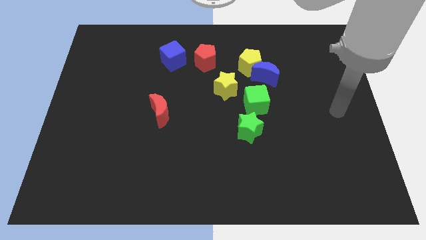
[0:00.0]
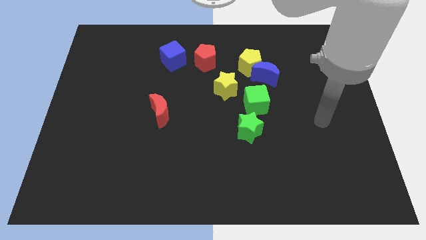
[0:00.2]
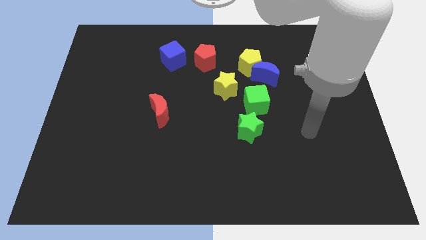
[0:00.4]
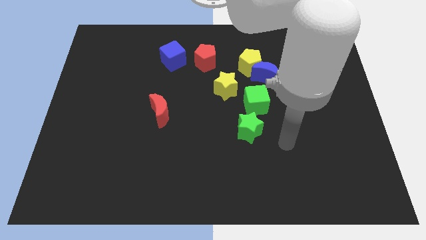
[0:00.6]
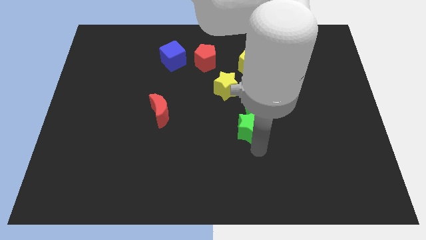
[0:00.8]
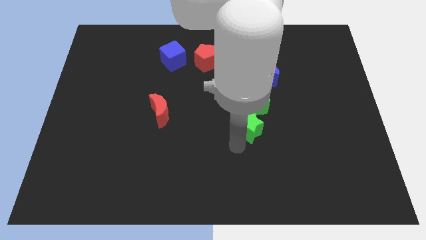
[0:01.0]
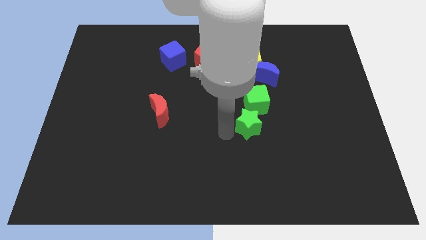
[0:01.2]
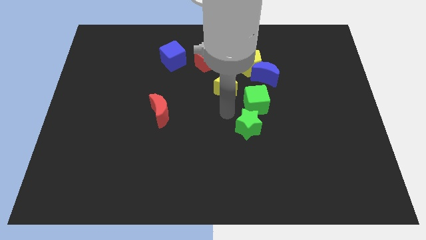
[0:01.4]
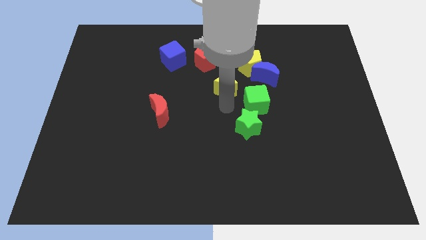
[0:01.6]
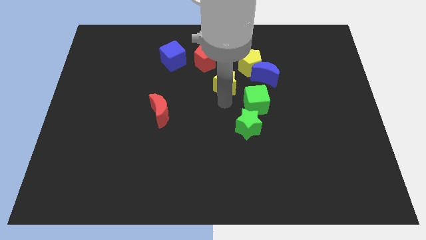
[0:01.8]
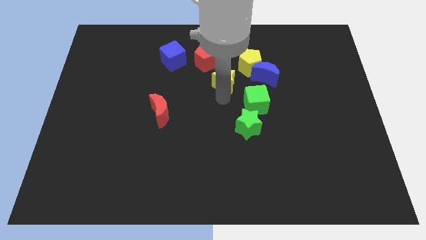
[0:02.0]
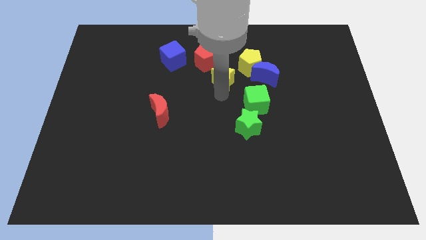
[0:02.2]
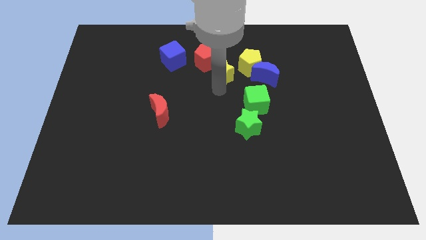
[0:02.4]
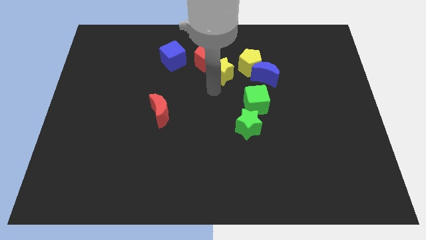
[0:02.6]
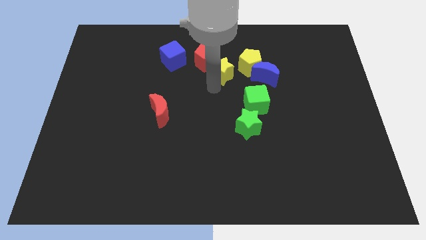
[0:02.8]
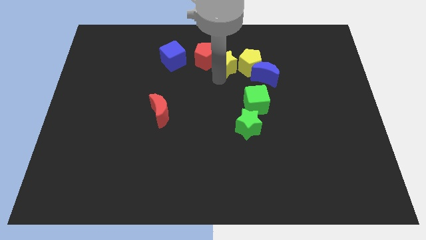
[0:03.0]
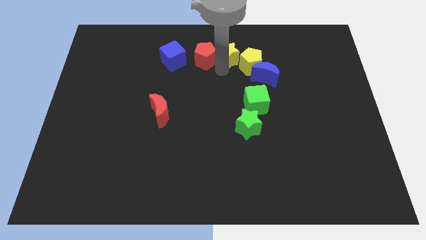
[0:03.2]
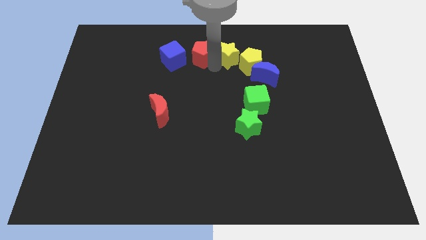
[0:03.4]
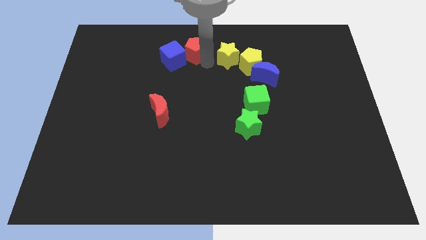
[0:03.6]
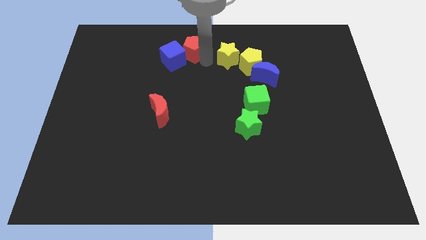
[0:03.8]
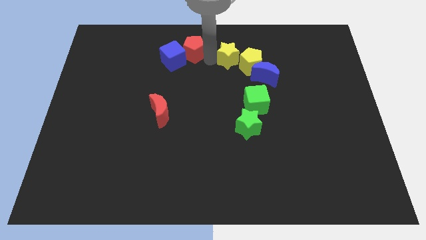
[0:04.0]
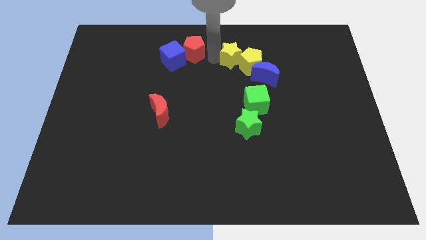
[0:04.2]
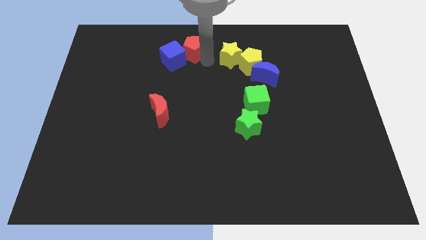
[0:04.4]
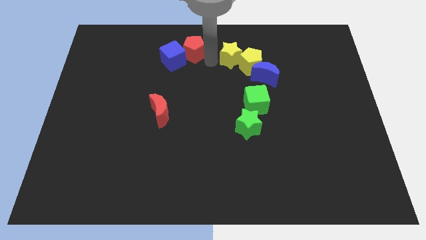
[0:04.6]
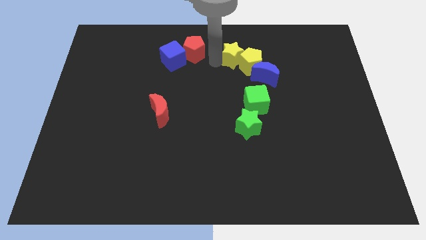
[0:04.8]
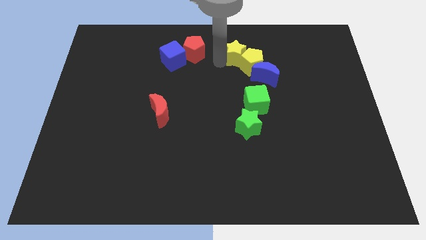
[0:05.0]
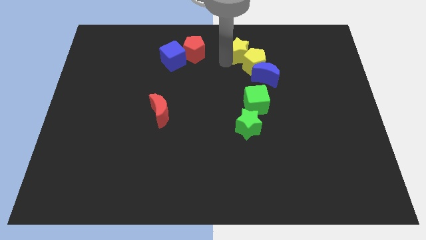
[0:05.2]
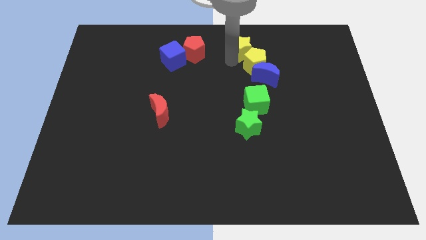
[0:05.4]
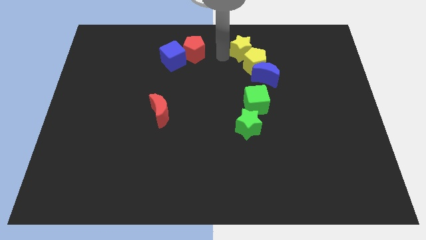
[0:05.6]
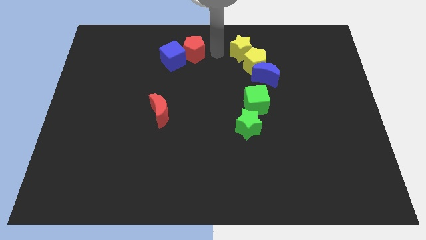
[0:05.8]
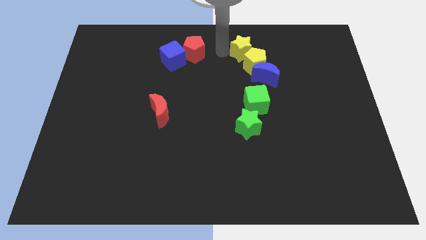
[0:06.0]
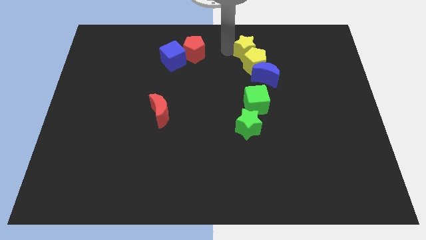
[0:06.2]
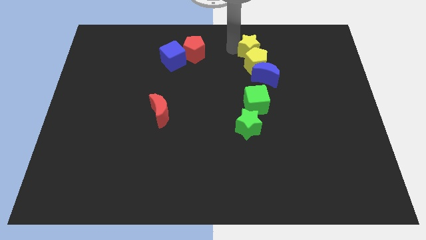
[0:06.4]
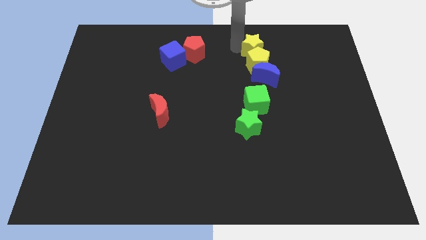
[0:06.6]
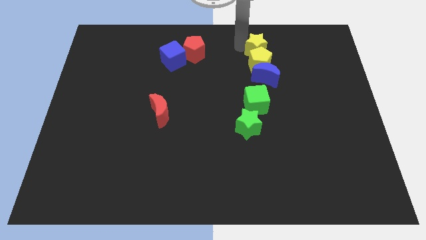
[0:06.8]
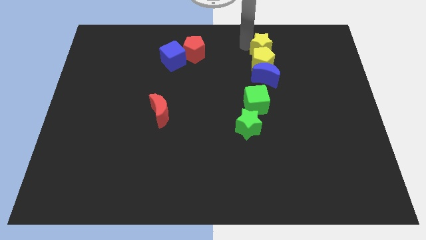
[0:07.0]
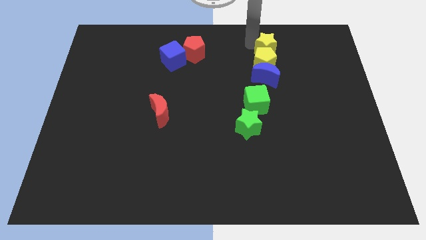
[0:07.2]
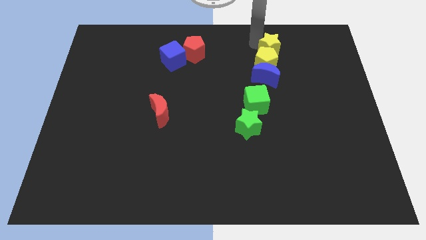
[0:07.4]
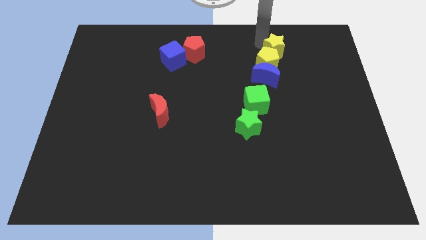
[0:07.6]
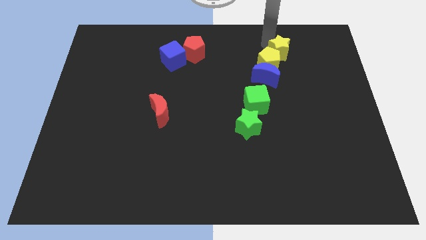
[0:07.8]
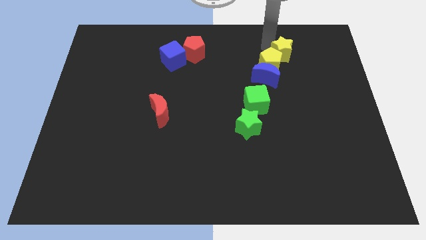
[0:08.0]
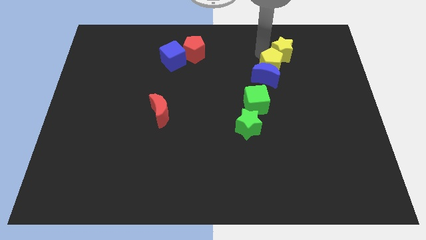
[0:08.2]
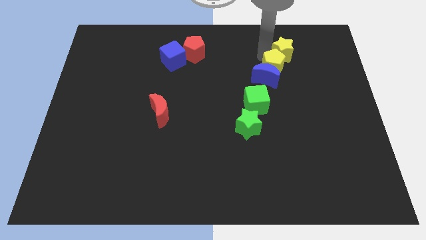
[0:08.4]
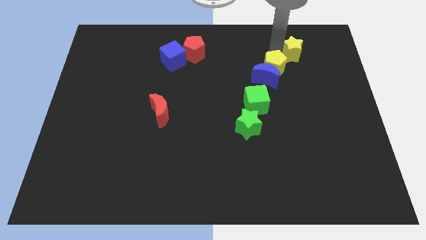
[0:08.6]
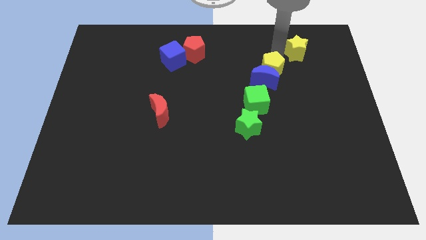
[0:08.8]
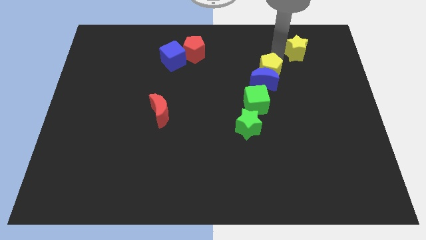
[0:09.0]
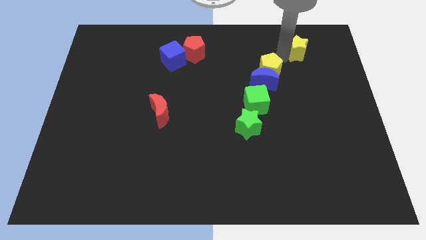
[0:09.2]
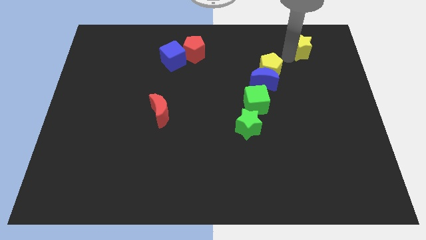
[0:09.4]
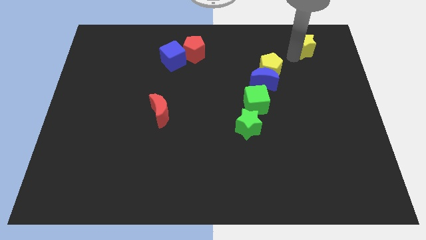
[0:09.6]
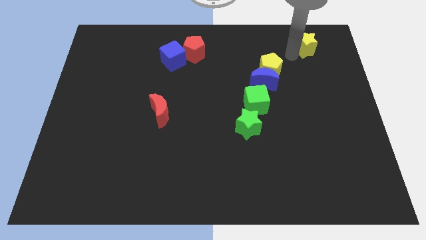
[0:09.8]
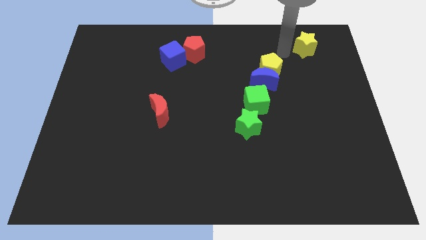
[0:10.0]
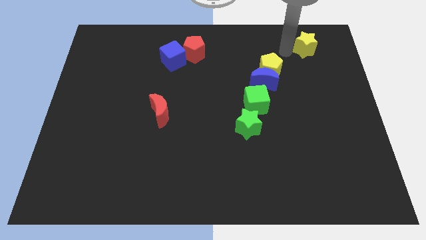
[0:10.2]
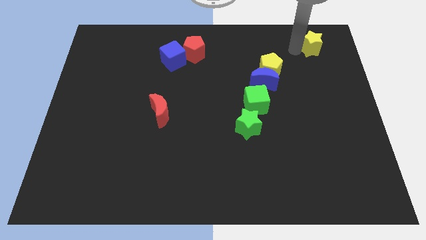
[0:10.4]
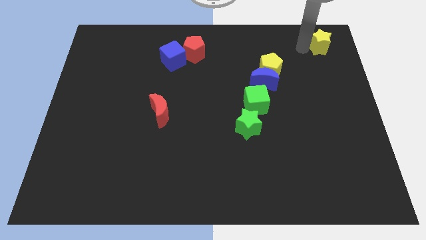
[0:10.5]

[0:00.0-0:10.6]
push the yellow star to the top right corner

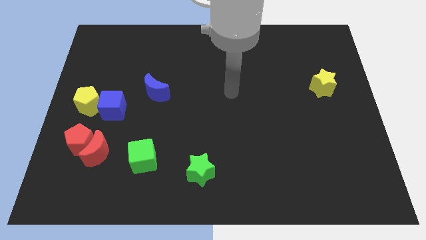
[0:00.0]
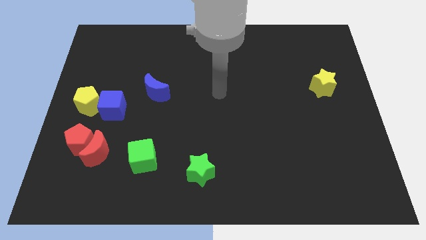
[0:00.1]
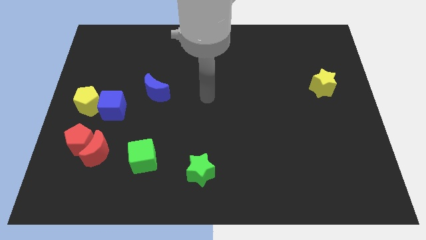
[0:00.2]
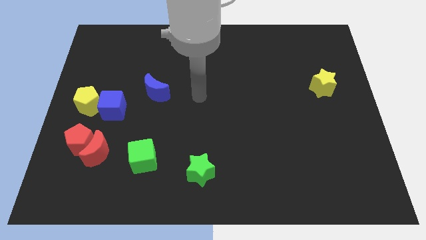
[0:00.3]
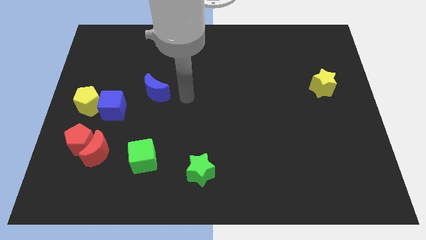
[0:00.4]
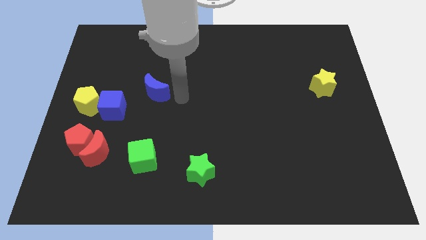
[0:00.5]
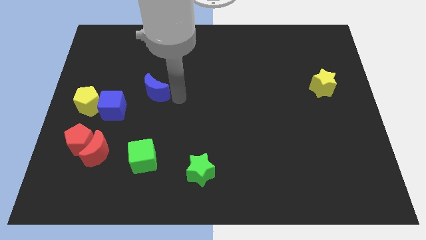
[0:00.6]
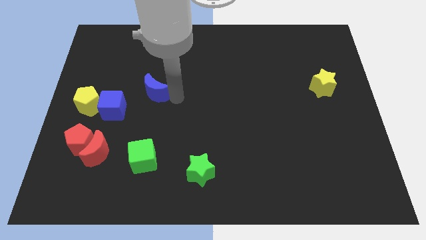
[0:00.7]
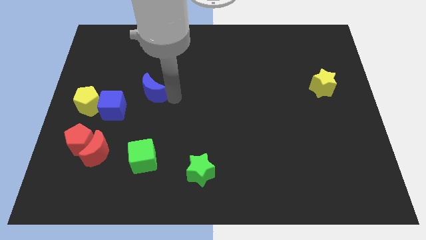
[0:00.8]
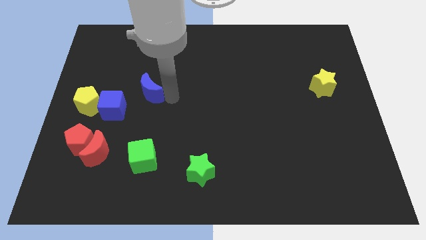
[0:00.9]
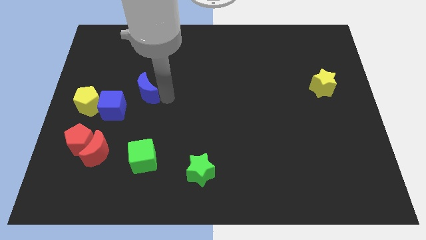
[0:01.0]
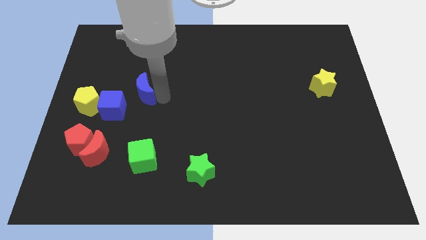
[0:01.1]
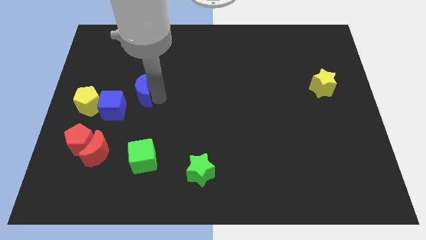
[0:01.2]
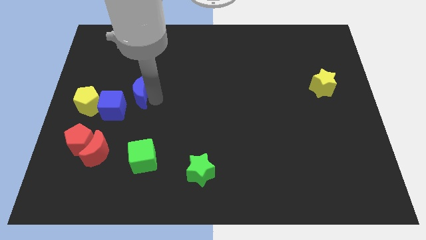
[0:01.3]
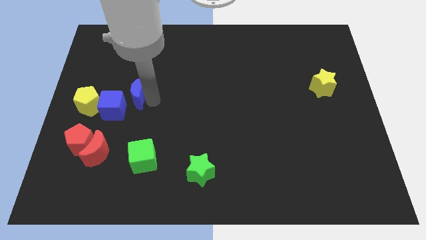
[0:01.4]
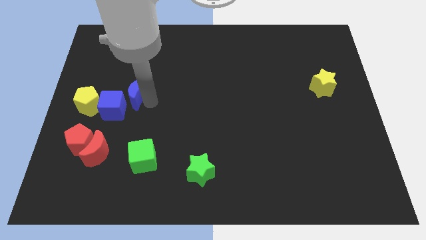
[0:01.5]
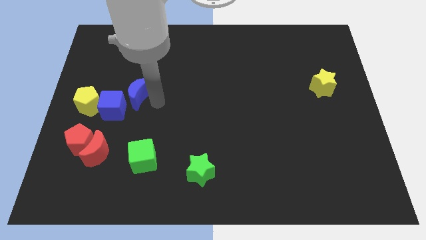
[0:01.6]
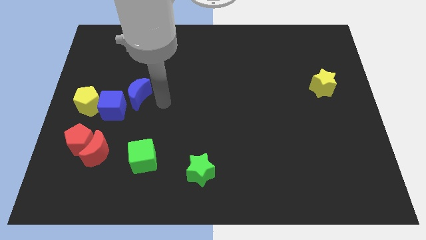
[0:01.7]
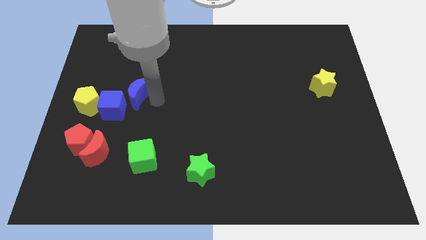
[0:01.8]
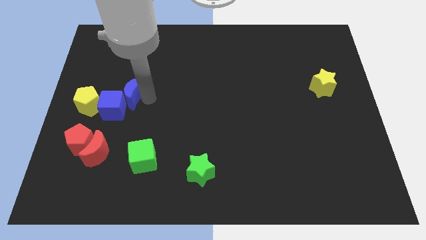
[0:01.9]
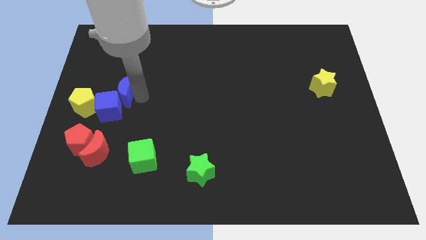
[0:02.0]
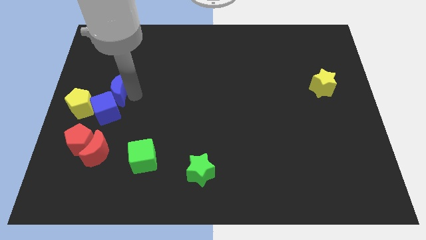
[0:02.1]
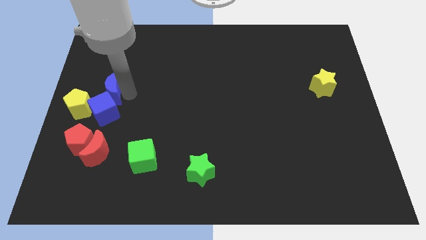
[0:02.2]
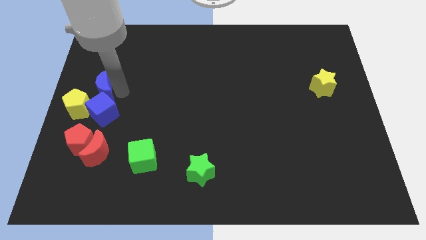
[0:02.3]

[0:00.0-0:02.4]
put the blue moon to the left side

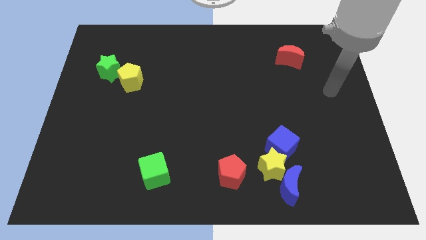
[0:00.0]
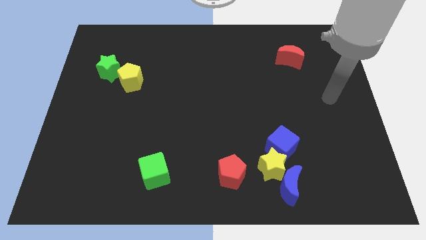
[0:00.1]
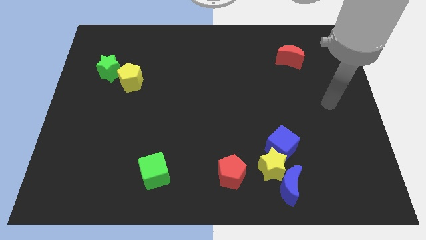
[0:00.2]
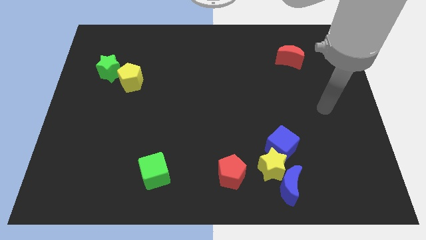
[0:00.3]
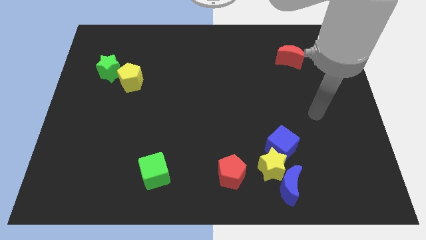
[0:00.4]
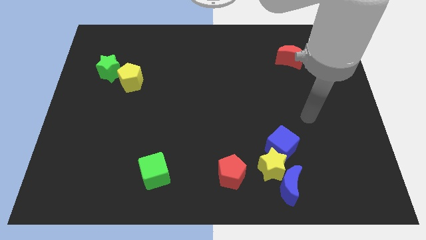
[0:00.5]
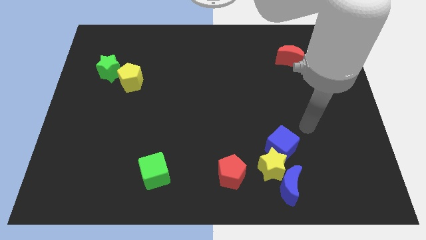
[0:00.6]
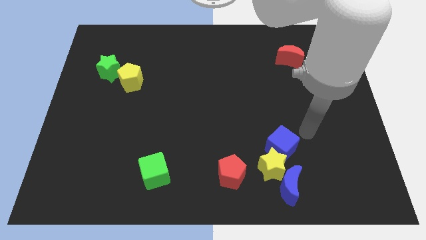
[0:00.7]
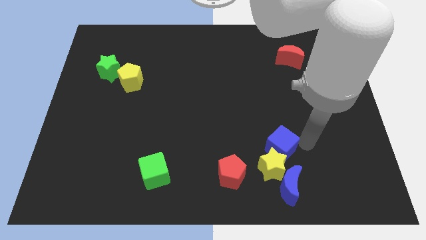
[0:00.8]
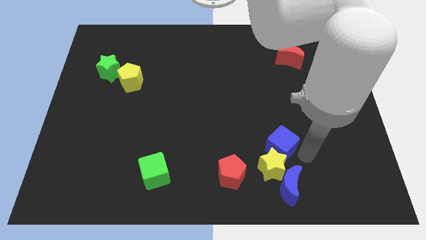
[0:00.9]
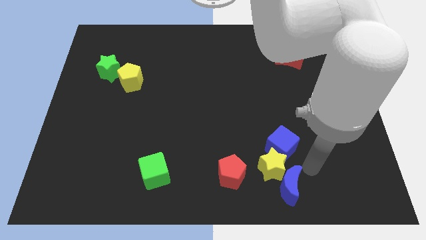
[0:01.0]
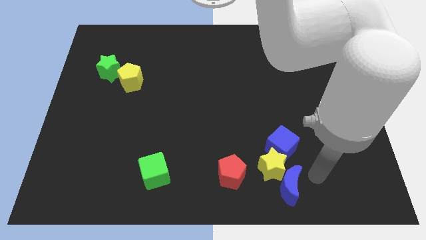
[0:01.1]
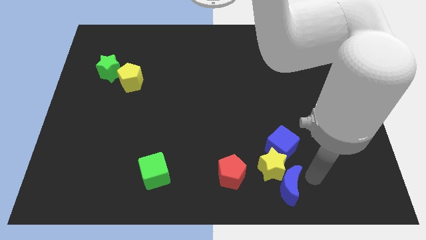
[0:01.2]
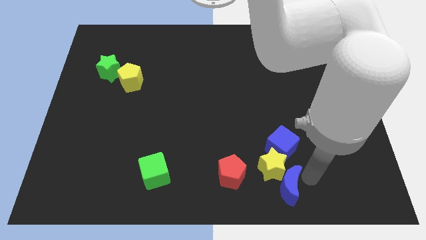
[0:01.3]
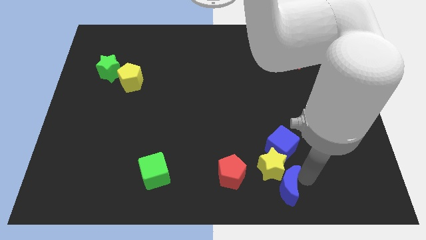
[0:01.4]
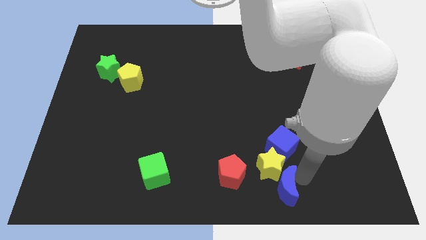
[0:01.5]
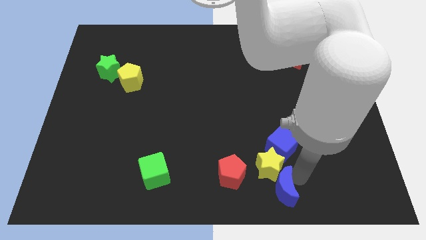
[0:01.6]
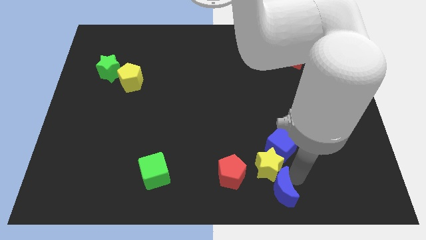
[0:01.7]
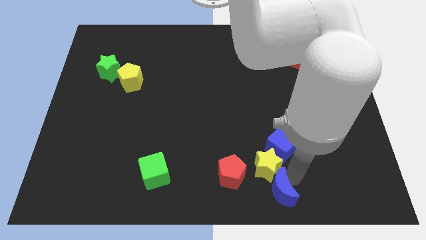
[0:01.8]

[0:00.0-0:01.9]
push the blue moon to the bottom side
